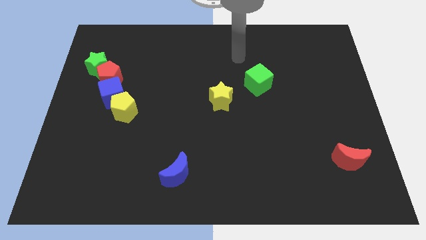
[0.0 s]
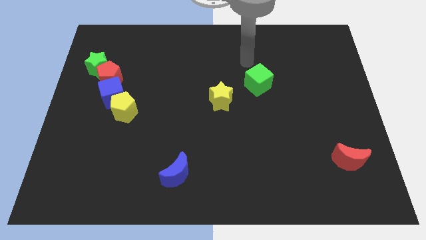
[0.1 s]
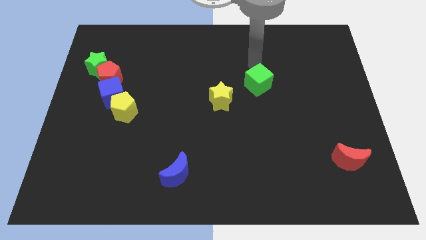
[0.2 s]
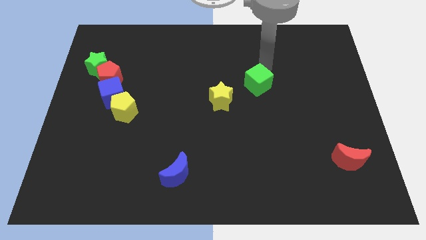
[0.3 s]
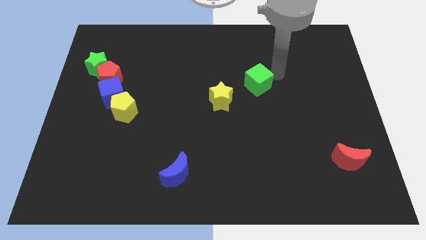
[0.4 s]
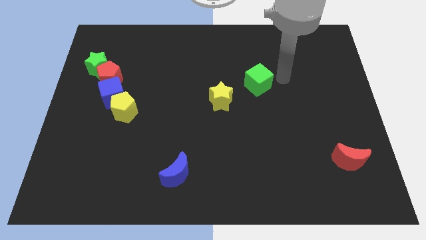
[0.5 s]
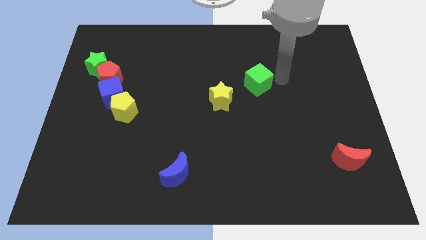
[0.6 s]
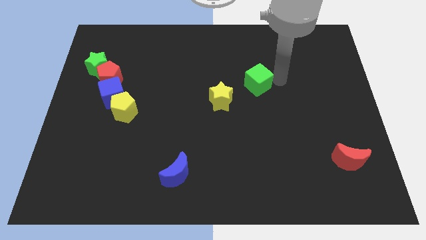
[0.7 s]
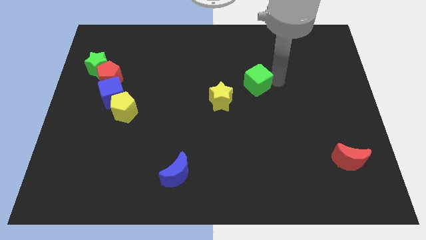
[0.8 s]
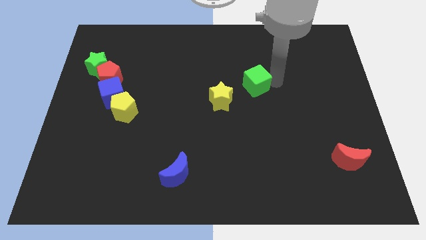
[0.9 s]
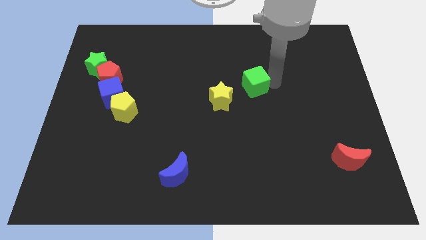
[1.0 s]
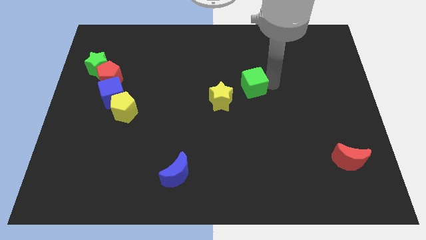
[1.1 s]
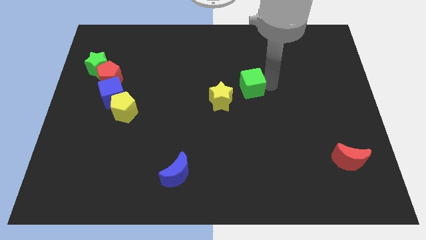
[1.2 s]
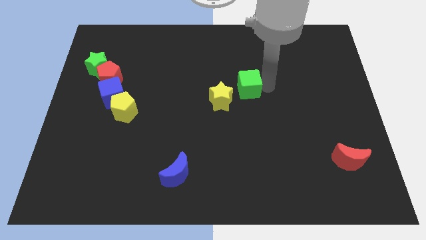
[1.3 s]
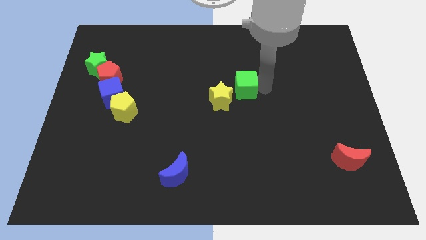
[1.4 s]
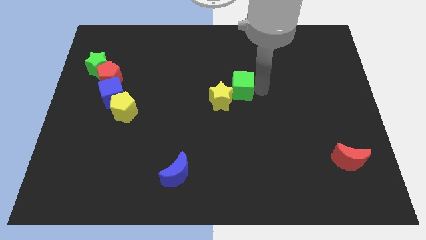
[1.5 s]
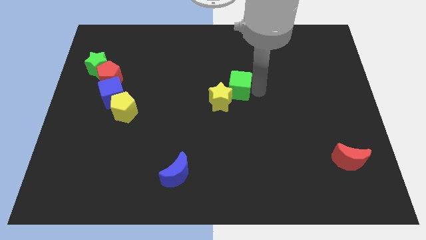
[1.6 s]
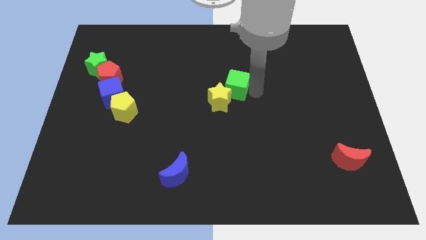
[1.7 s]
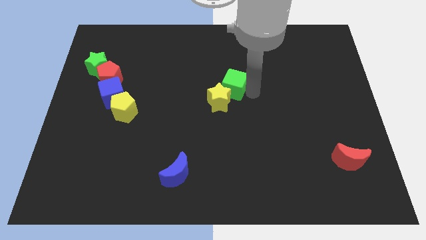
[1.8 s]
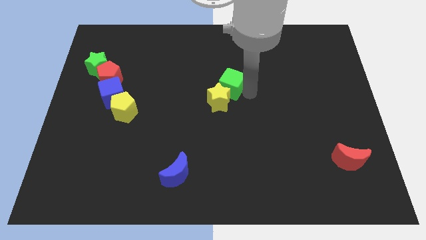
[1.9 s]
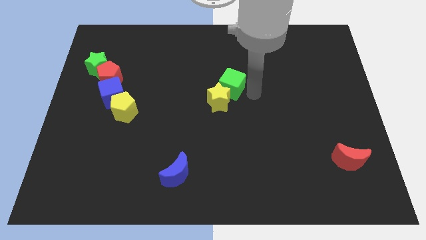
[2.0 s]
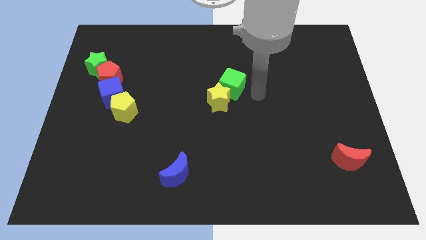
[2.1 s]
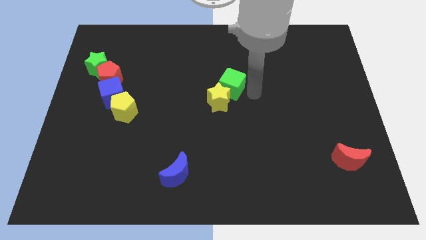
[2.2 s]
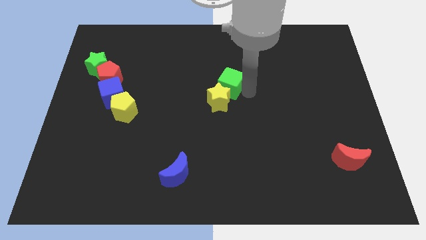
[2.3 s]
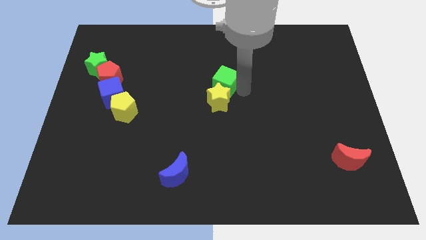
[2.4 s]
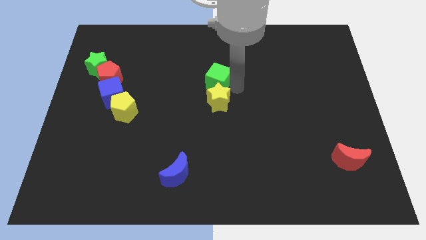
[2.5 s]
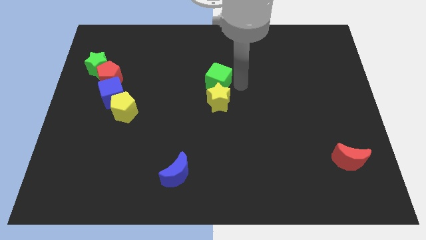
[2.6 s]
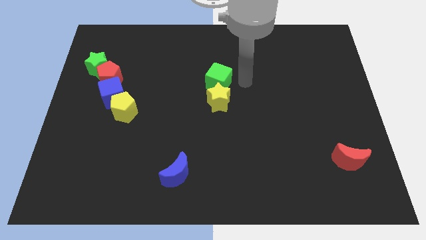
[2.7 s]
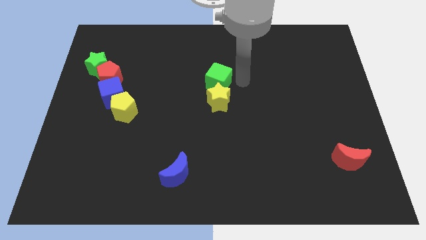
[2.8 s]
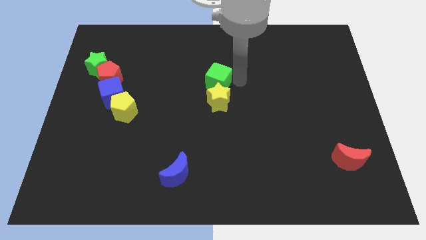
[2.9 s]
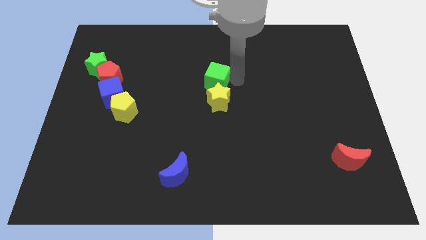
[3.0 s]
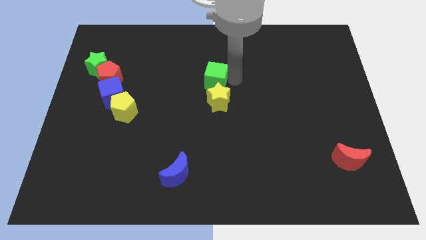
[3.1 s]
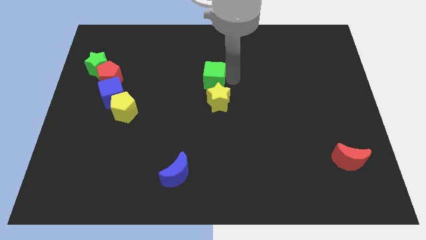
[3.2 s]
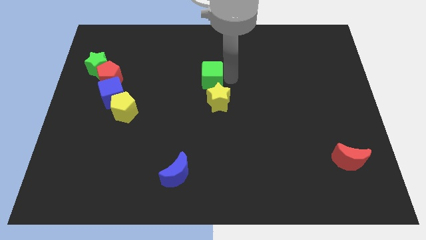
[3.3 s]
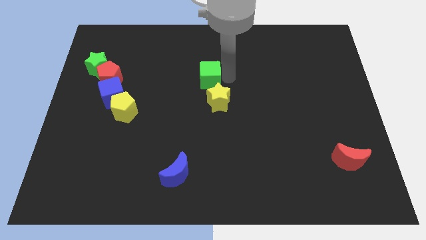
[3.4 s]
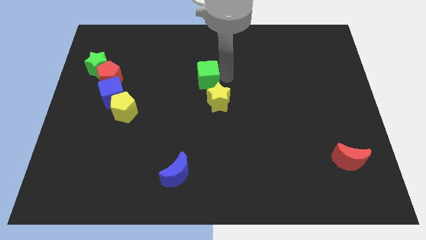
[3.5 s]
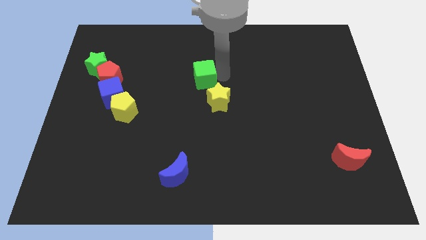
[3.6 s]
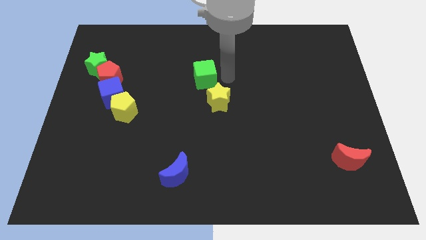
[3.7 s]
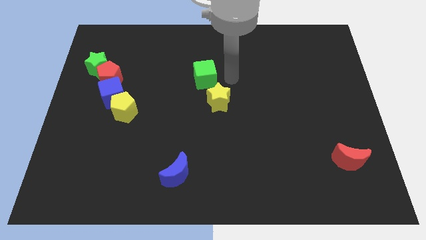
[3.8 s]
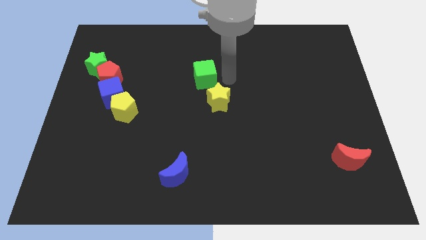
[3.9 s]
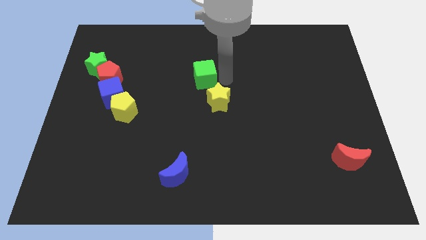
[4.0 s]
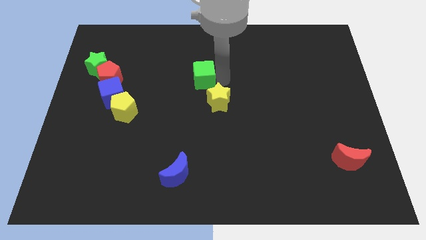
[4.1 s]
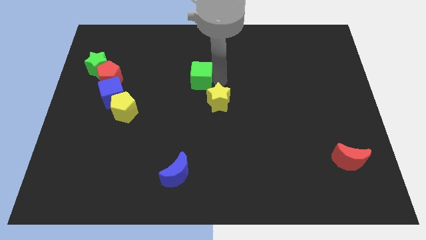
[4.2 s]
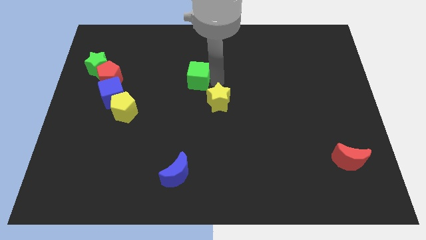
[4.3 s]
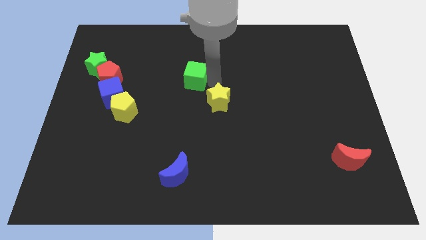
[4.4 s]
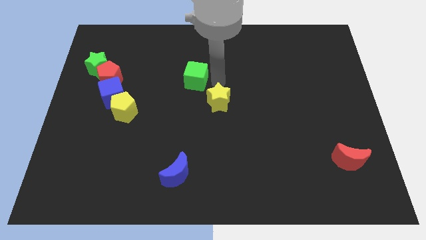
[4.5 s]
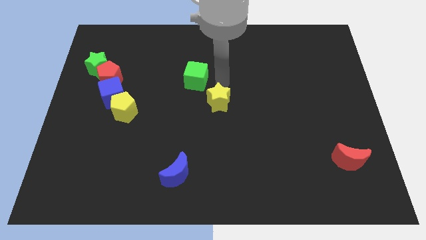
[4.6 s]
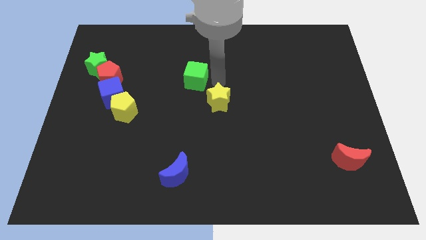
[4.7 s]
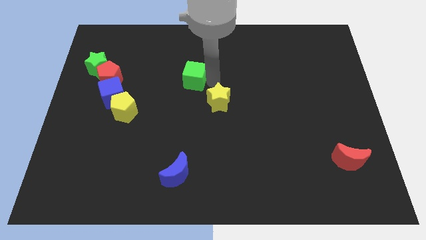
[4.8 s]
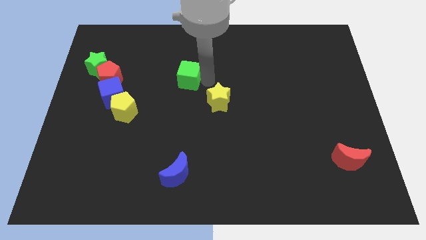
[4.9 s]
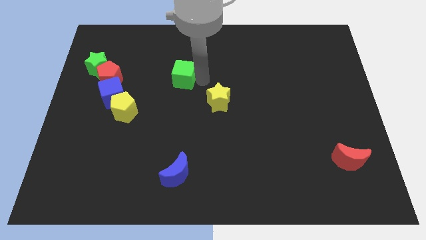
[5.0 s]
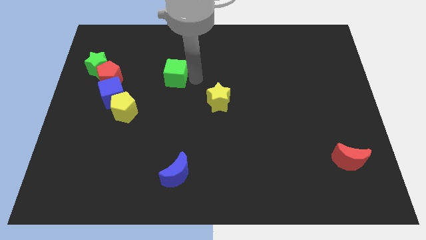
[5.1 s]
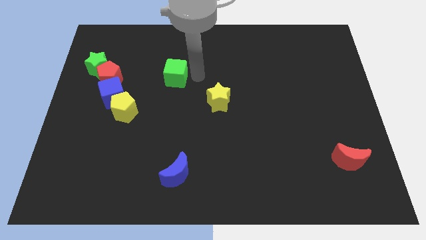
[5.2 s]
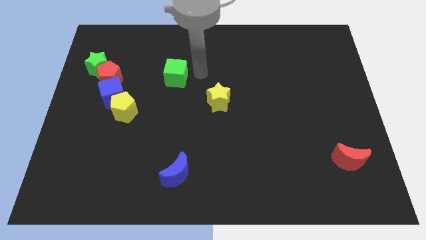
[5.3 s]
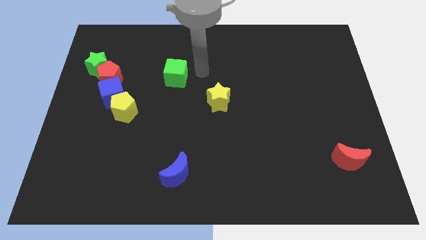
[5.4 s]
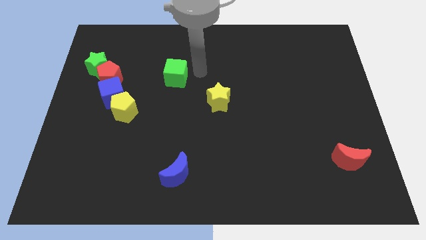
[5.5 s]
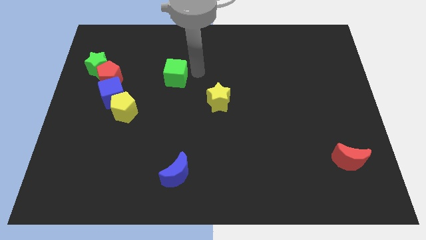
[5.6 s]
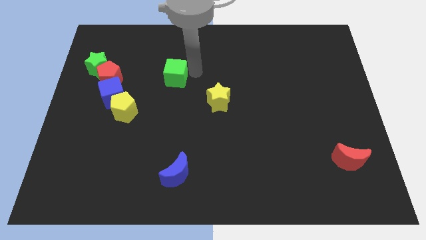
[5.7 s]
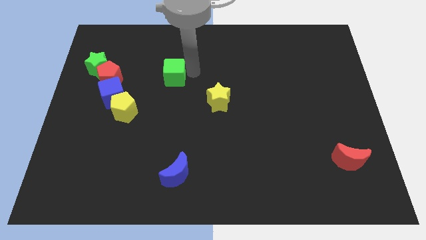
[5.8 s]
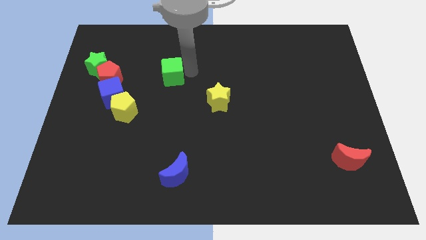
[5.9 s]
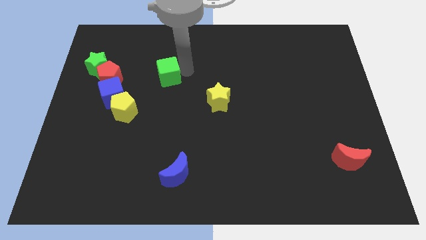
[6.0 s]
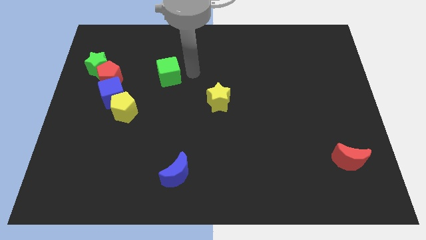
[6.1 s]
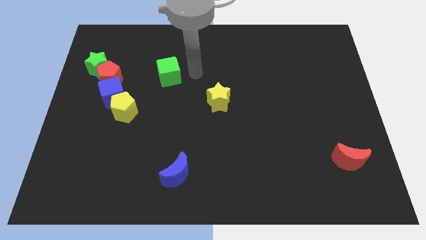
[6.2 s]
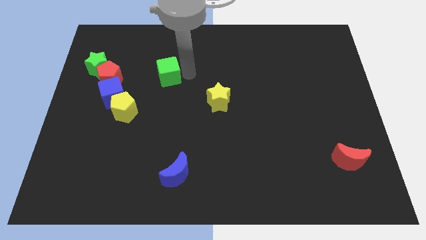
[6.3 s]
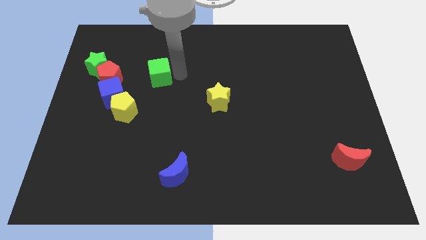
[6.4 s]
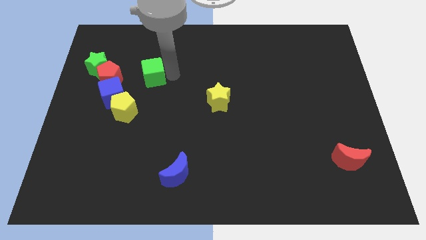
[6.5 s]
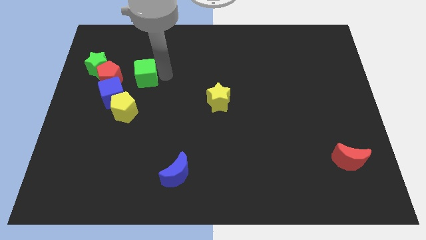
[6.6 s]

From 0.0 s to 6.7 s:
move the green cube to the top side of the yellow pentagon

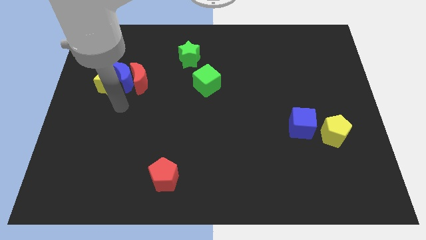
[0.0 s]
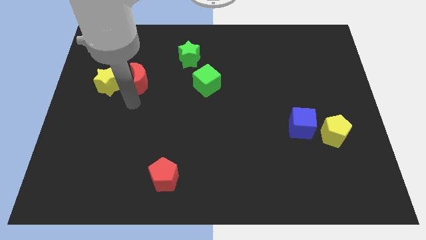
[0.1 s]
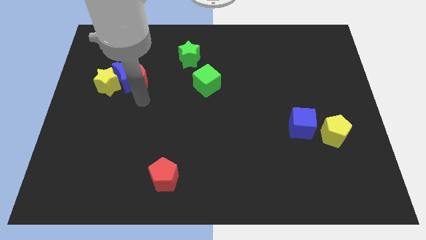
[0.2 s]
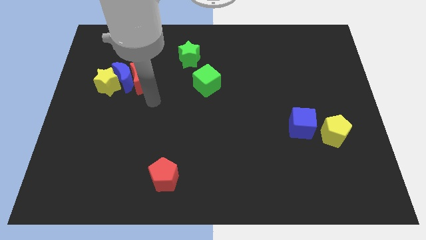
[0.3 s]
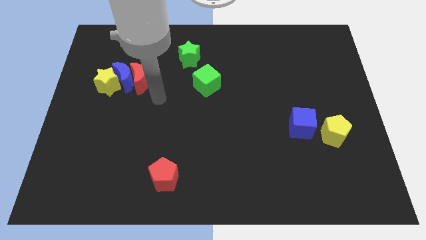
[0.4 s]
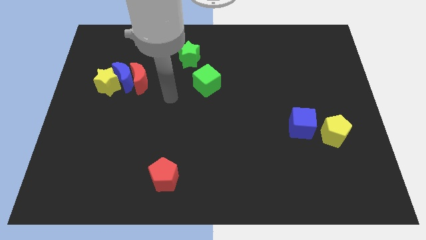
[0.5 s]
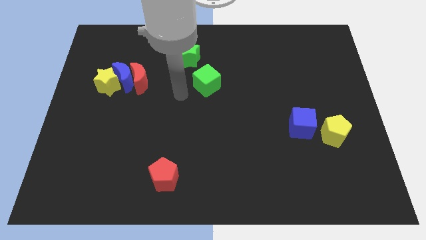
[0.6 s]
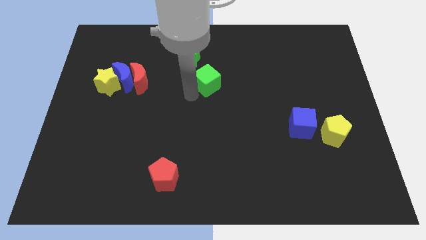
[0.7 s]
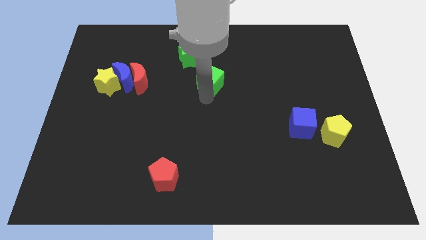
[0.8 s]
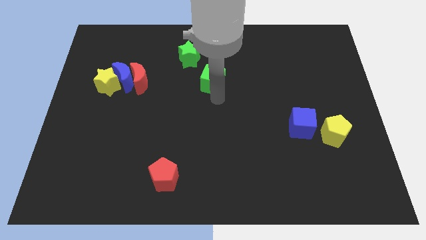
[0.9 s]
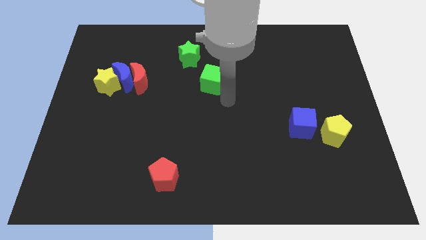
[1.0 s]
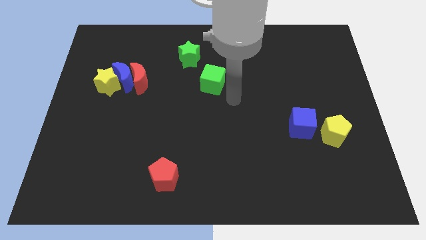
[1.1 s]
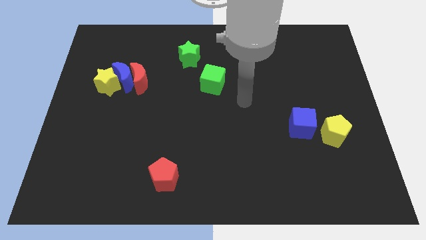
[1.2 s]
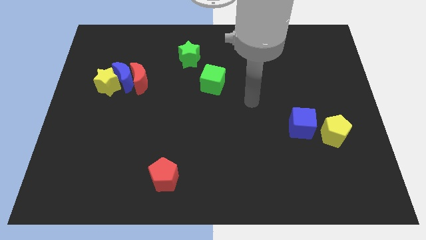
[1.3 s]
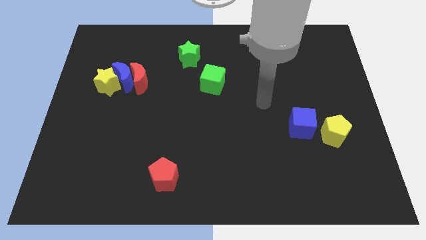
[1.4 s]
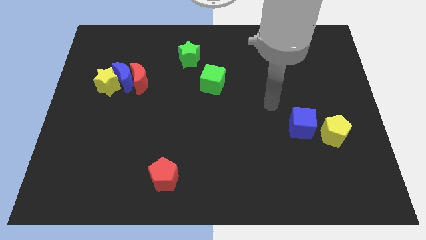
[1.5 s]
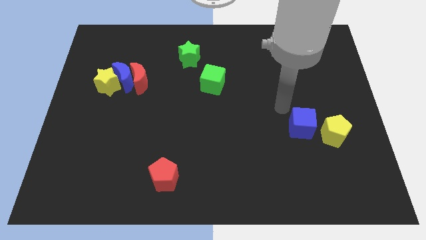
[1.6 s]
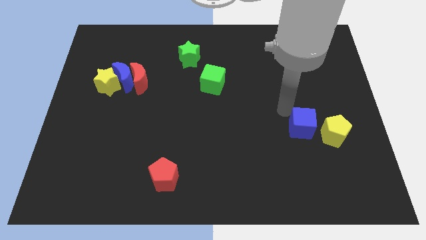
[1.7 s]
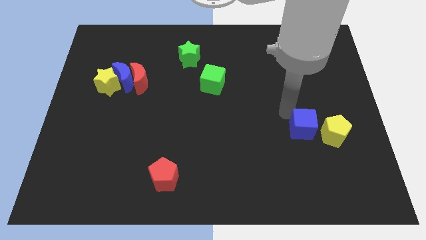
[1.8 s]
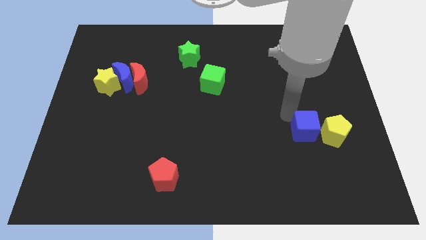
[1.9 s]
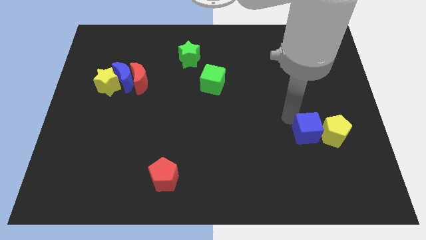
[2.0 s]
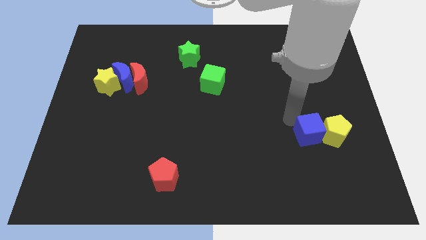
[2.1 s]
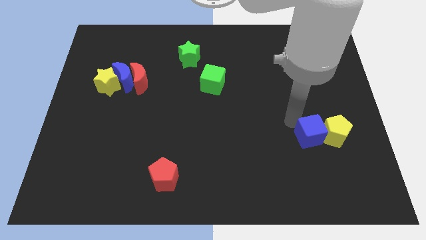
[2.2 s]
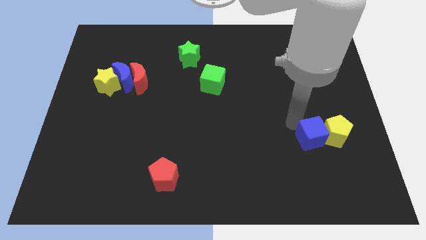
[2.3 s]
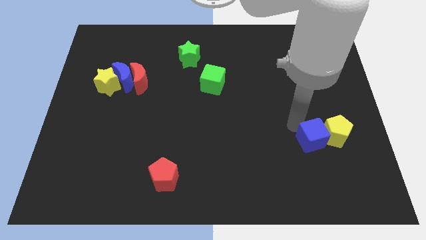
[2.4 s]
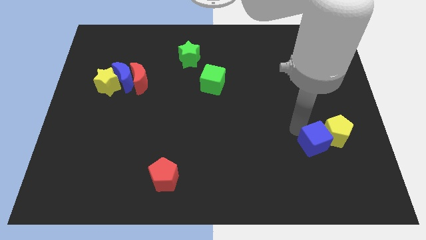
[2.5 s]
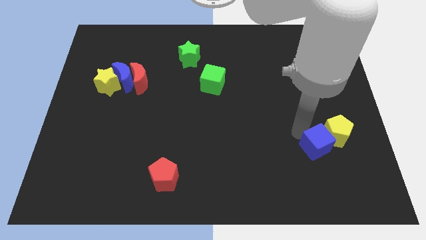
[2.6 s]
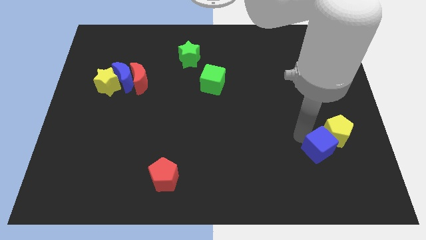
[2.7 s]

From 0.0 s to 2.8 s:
move the blue cube to the bottom of the yellow pentagon
